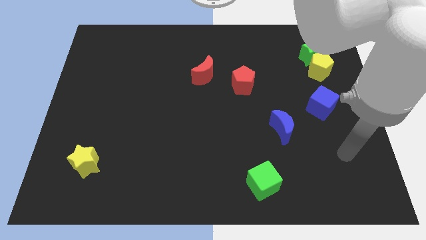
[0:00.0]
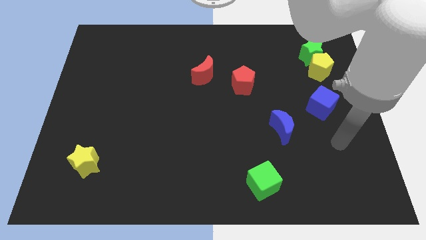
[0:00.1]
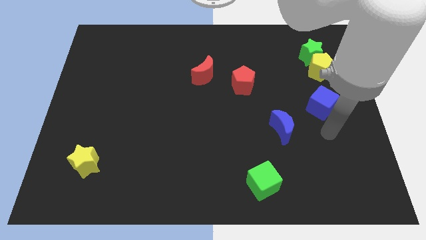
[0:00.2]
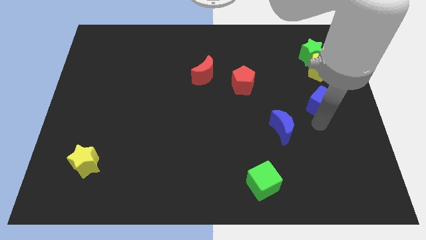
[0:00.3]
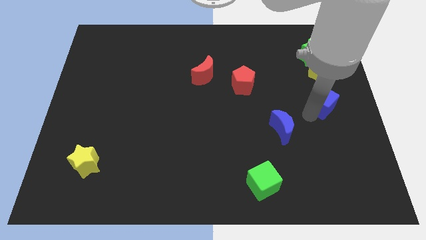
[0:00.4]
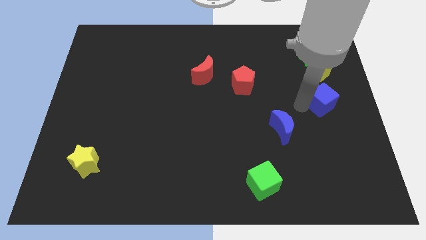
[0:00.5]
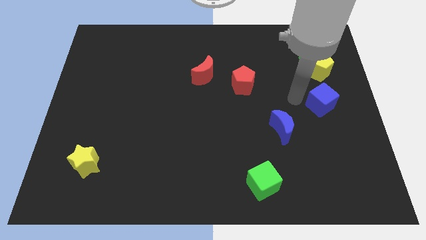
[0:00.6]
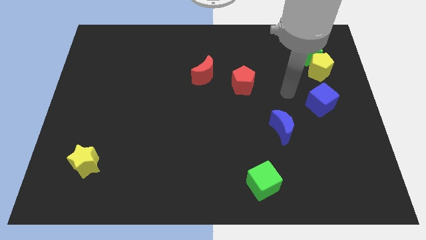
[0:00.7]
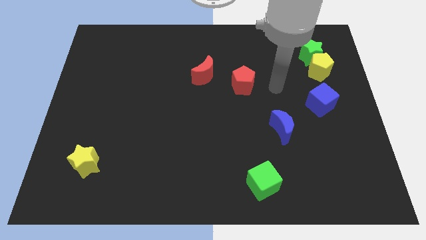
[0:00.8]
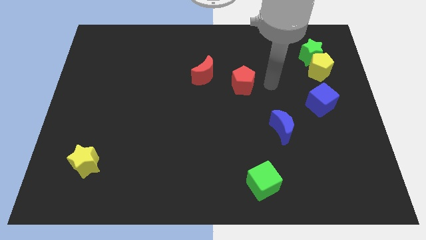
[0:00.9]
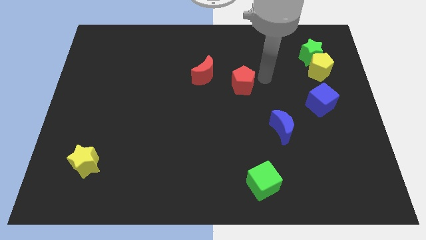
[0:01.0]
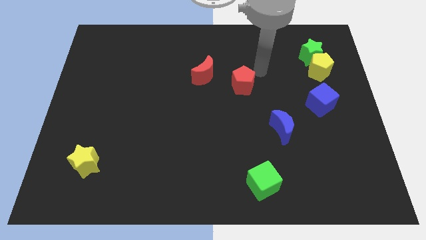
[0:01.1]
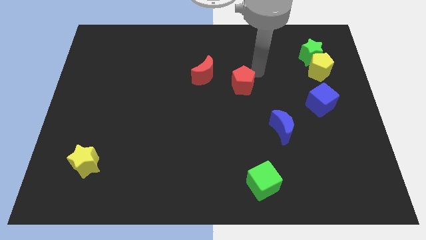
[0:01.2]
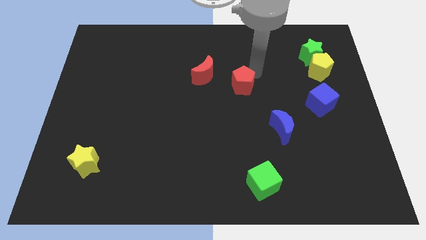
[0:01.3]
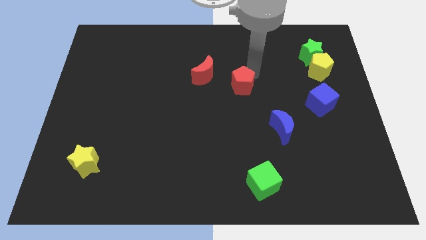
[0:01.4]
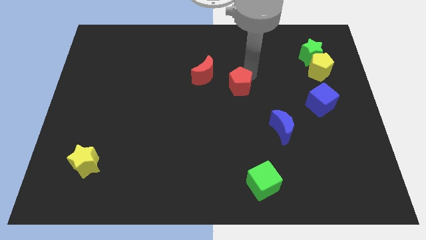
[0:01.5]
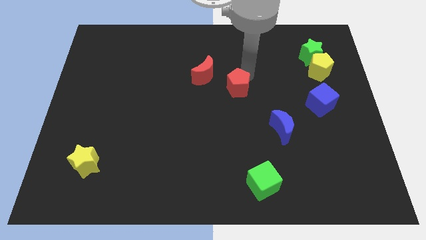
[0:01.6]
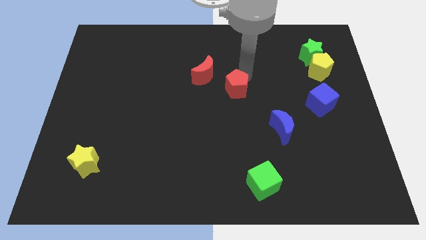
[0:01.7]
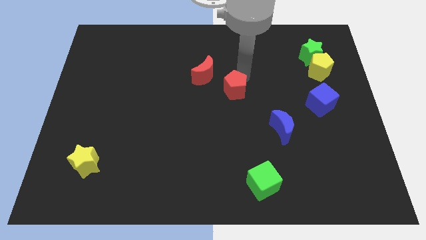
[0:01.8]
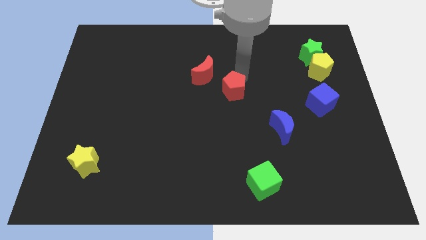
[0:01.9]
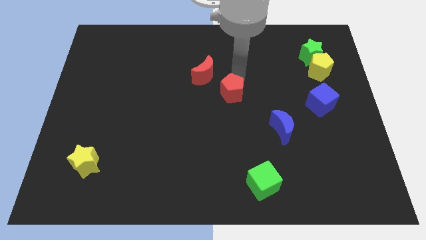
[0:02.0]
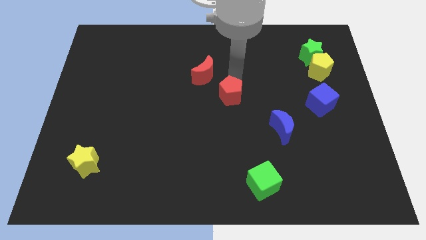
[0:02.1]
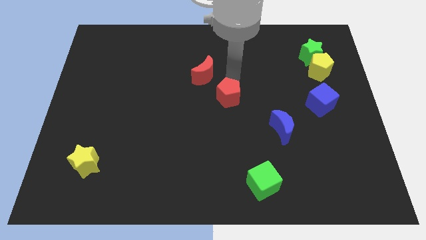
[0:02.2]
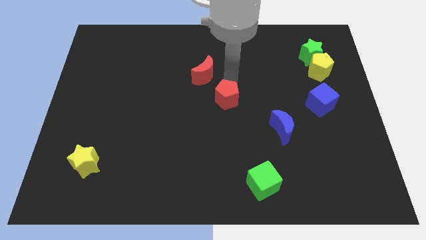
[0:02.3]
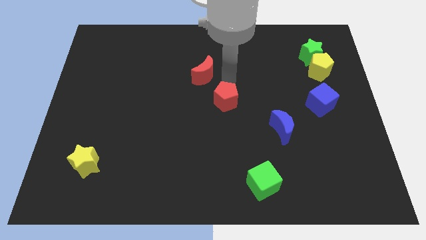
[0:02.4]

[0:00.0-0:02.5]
slightly push the red pentagon downwards and left diagonally

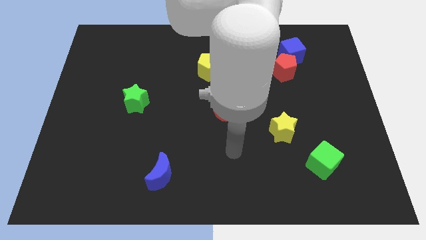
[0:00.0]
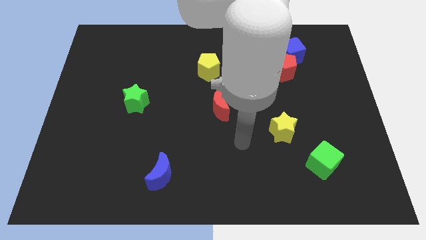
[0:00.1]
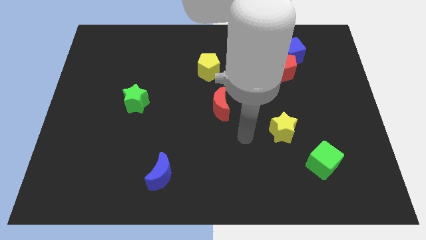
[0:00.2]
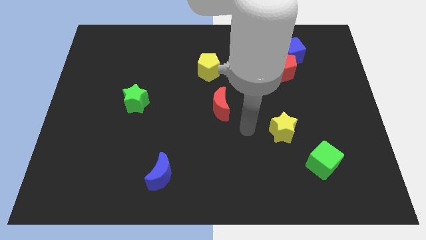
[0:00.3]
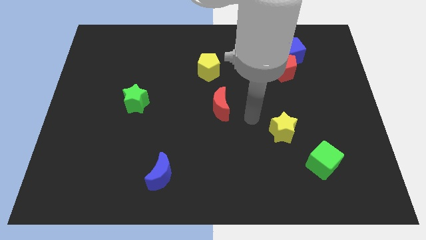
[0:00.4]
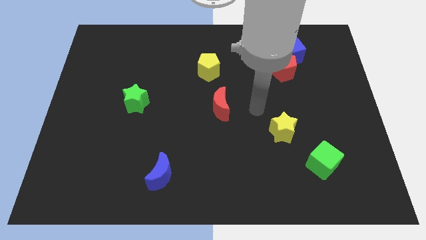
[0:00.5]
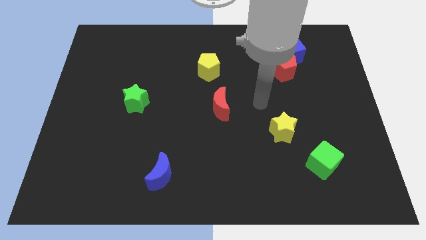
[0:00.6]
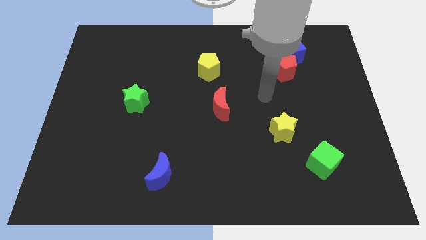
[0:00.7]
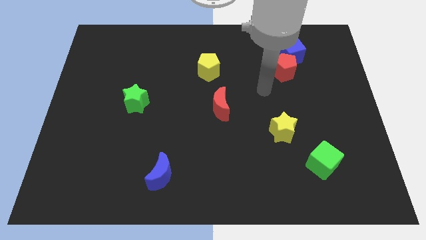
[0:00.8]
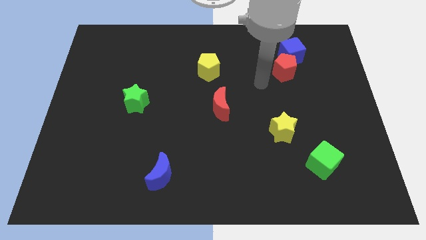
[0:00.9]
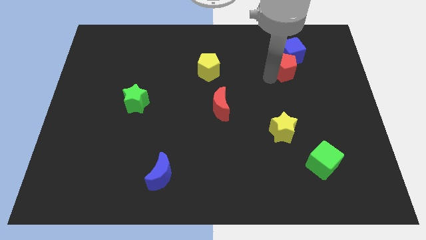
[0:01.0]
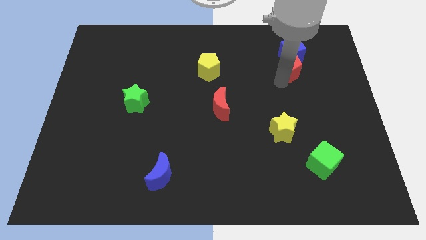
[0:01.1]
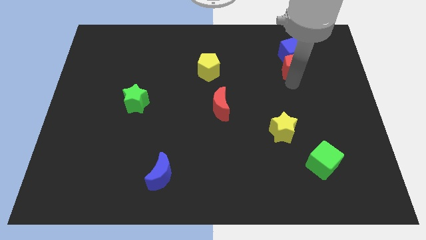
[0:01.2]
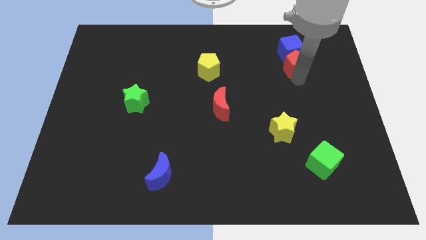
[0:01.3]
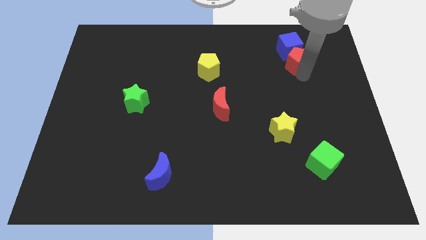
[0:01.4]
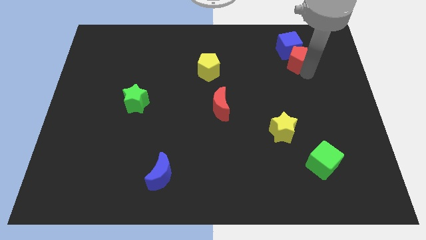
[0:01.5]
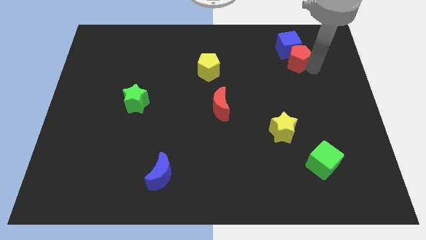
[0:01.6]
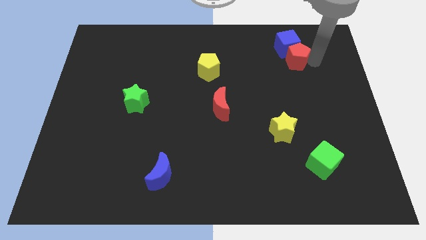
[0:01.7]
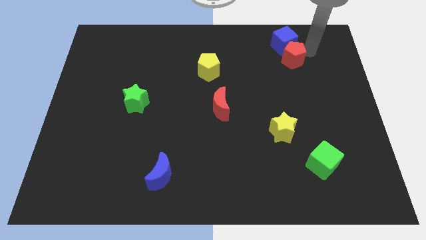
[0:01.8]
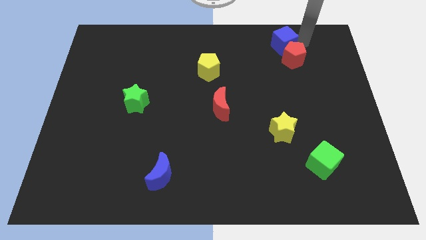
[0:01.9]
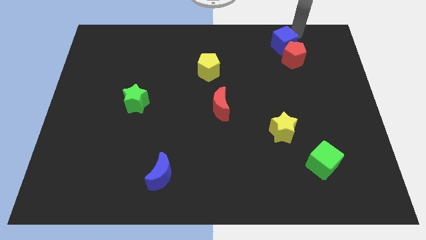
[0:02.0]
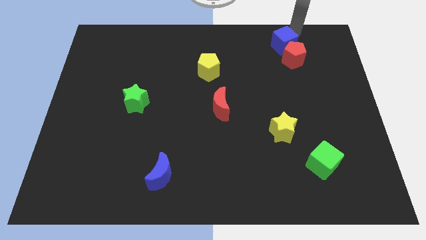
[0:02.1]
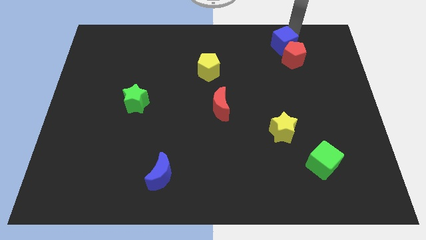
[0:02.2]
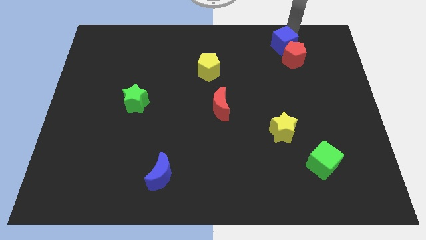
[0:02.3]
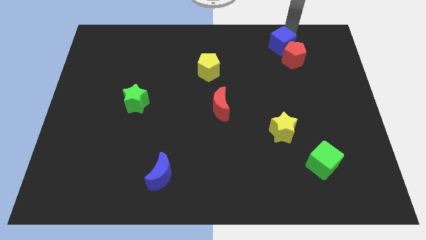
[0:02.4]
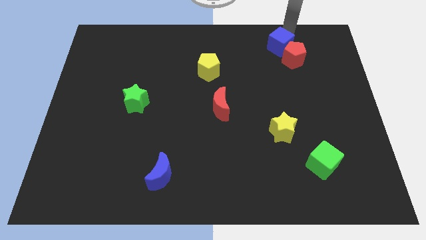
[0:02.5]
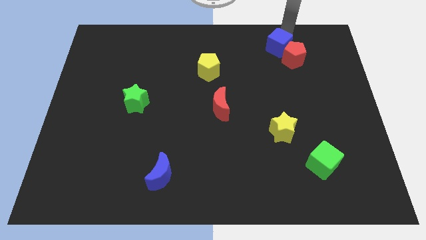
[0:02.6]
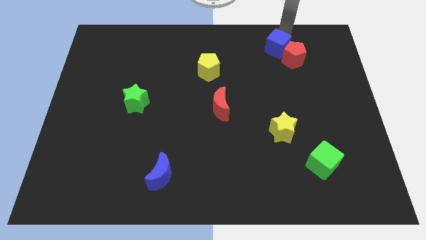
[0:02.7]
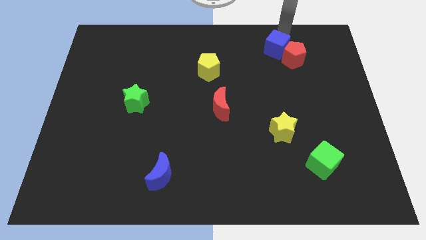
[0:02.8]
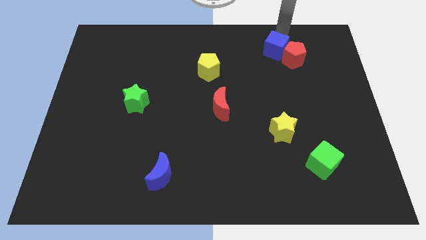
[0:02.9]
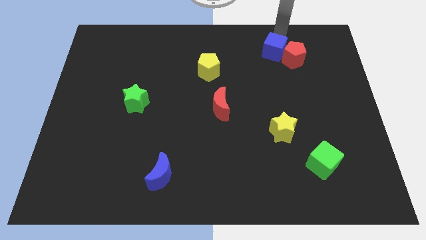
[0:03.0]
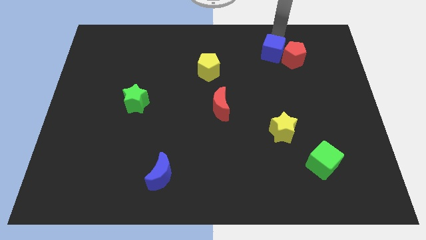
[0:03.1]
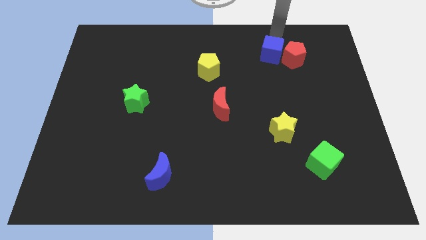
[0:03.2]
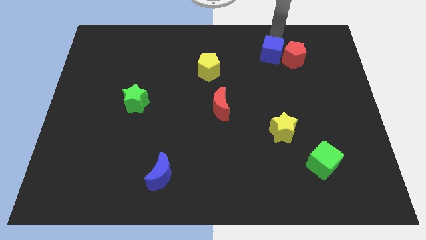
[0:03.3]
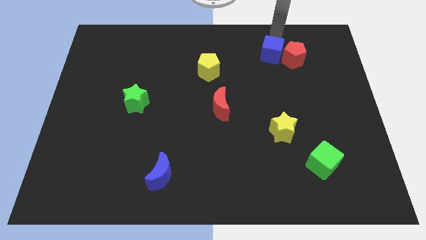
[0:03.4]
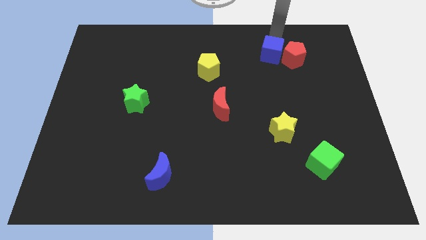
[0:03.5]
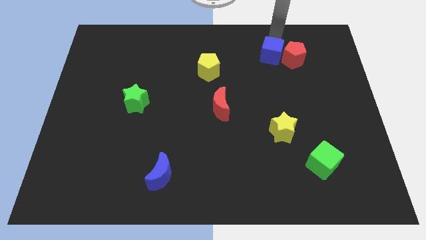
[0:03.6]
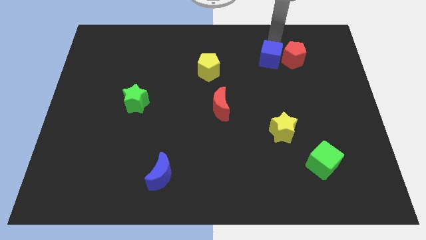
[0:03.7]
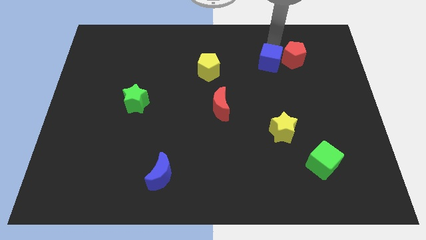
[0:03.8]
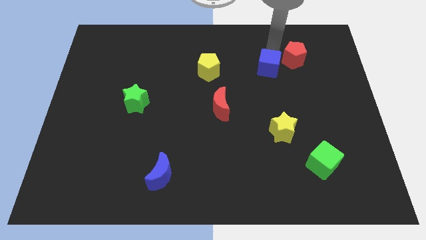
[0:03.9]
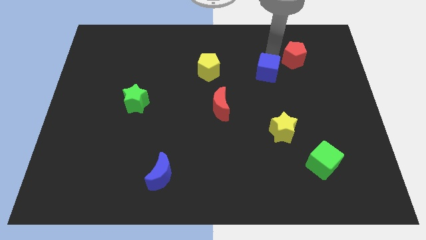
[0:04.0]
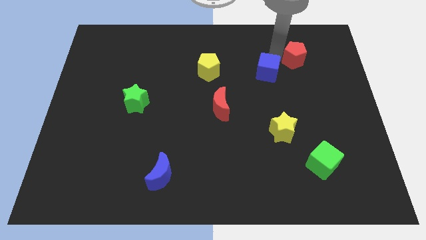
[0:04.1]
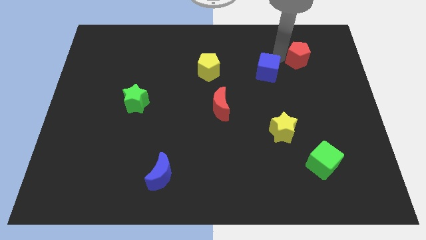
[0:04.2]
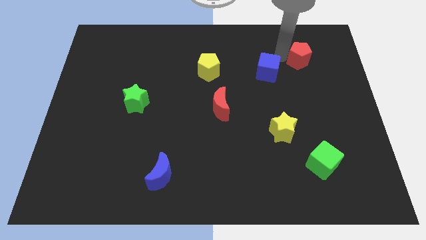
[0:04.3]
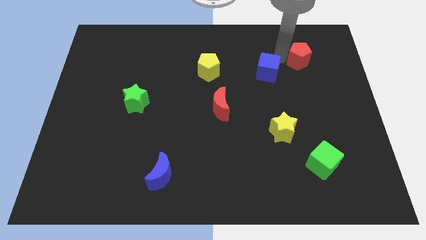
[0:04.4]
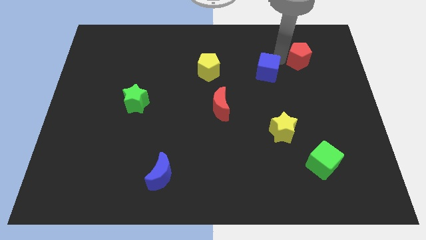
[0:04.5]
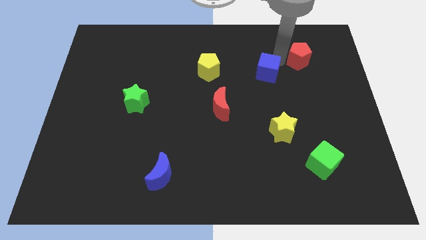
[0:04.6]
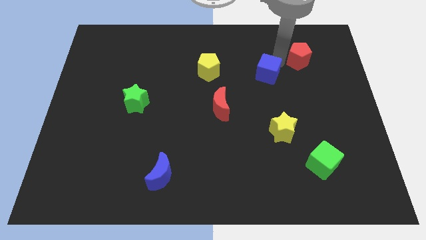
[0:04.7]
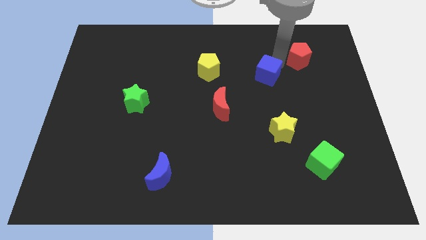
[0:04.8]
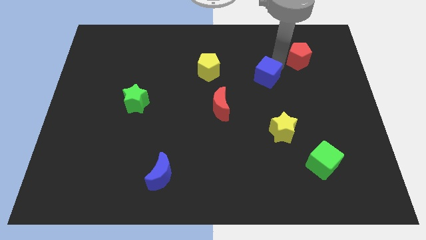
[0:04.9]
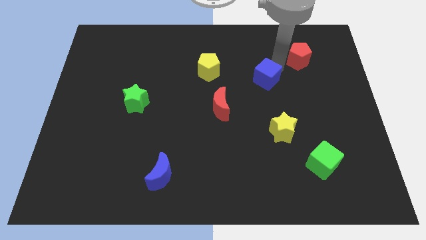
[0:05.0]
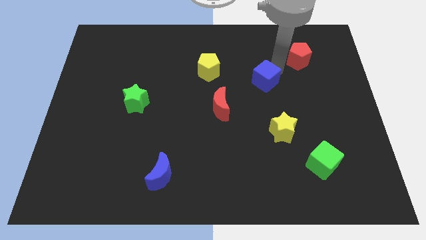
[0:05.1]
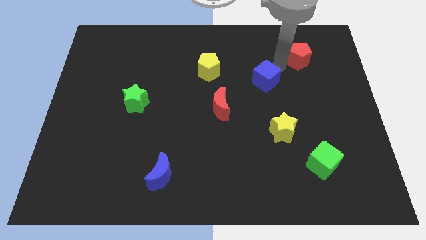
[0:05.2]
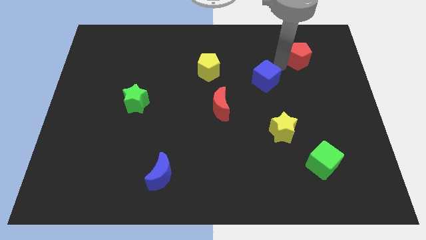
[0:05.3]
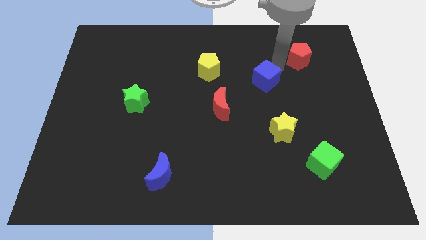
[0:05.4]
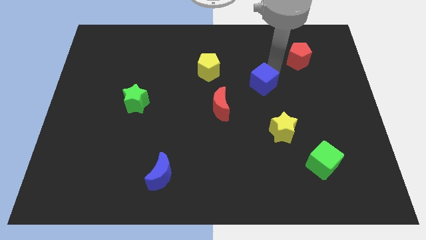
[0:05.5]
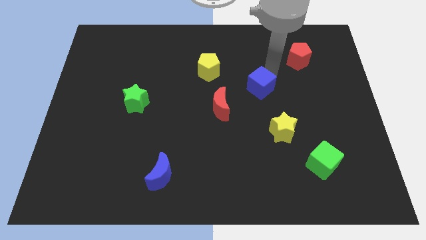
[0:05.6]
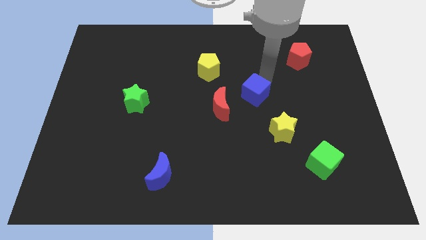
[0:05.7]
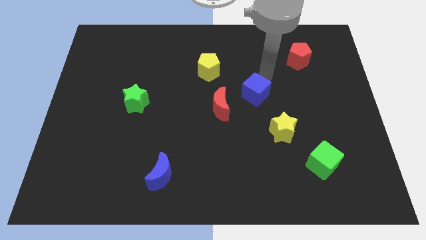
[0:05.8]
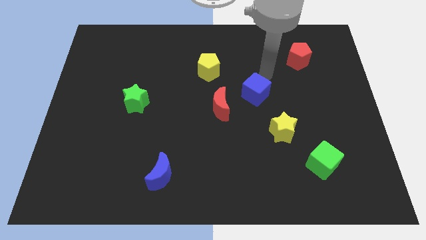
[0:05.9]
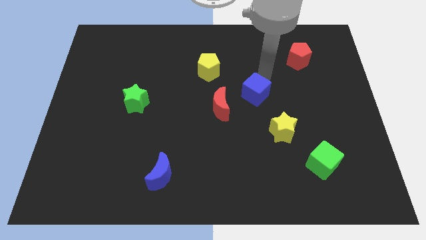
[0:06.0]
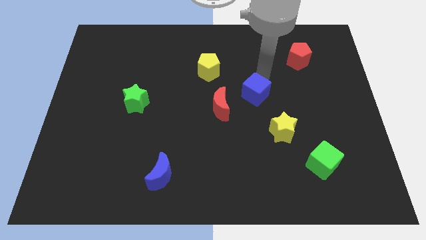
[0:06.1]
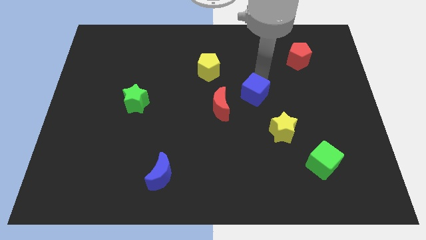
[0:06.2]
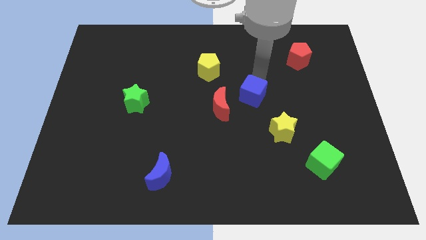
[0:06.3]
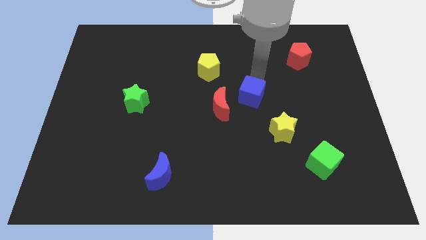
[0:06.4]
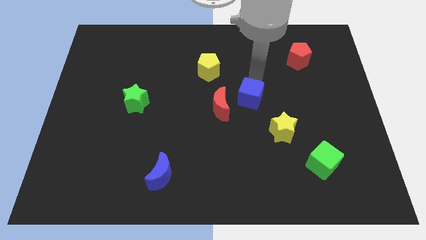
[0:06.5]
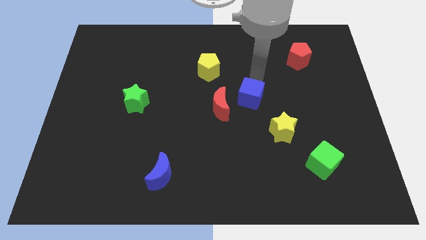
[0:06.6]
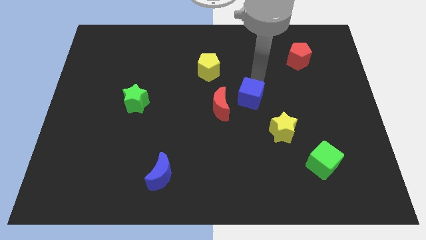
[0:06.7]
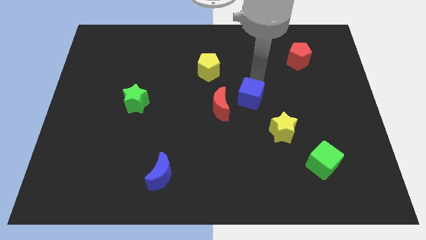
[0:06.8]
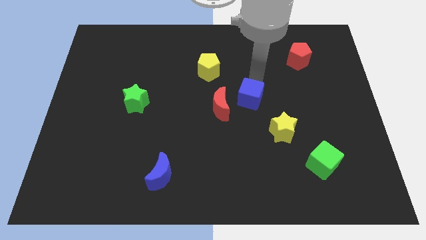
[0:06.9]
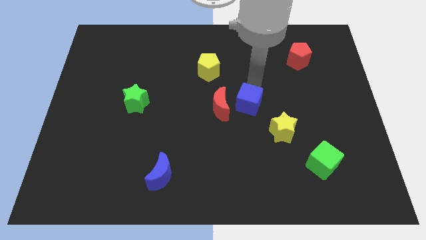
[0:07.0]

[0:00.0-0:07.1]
move the blue cube diagonally down and to the left
